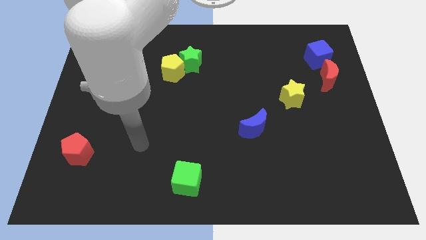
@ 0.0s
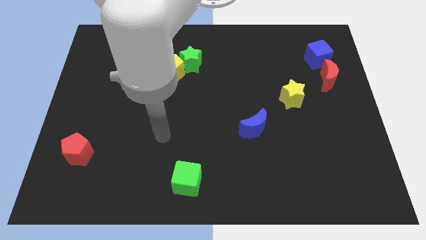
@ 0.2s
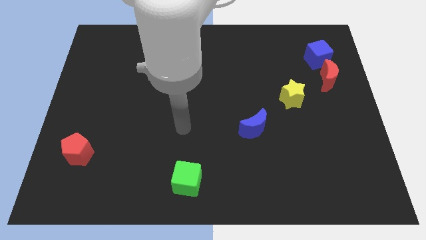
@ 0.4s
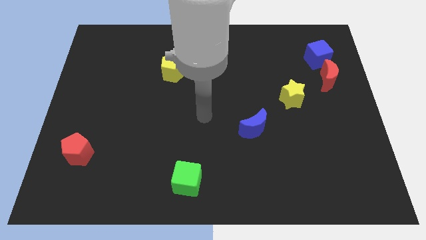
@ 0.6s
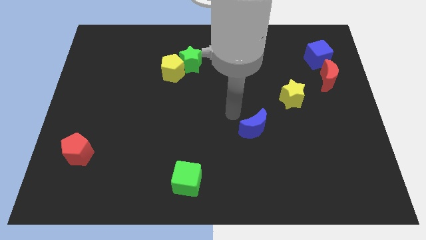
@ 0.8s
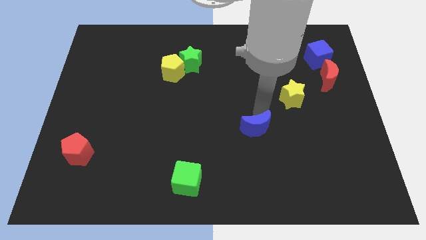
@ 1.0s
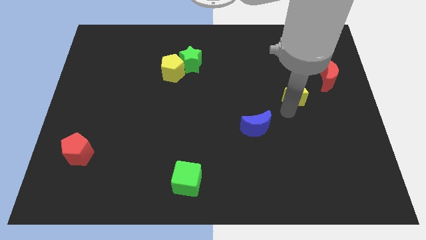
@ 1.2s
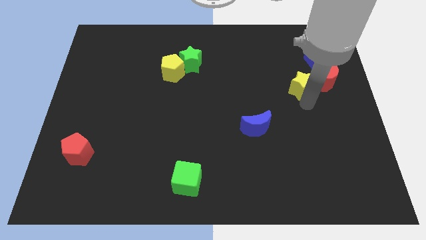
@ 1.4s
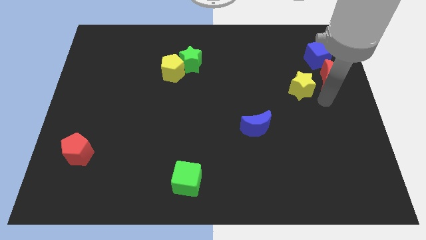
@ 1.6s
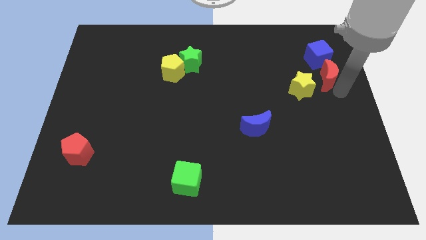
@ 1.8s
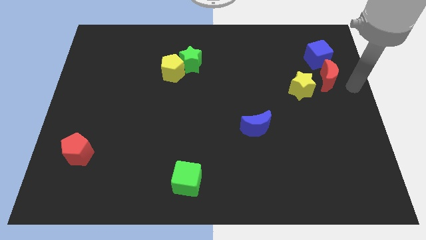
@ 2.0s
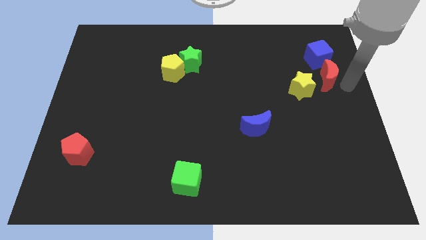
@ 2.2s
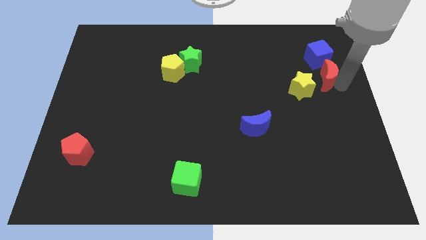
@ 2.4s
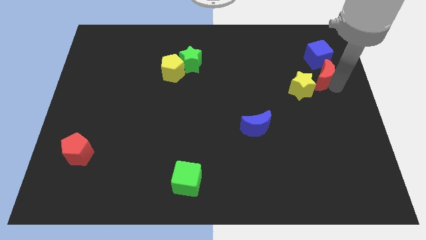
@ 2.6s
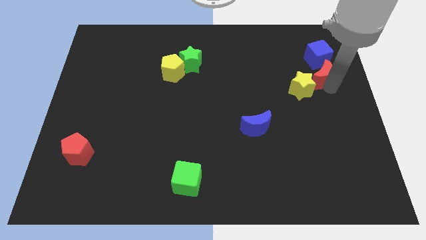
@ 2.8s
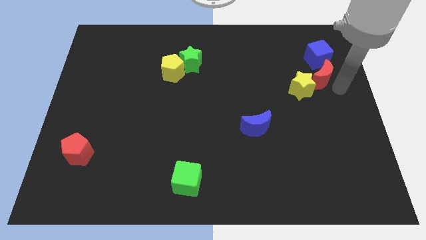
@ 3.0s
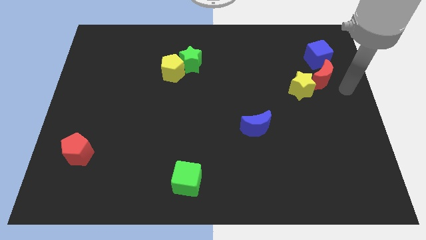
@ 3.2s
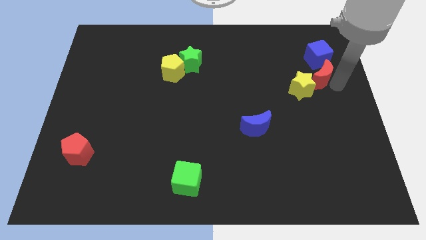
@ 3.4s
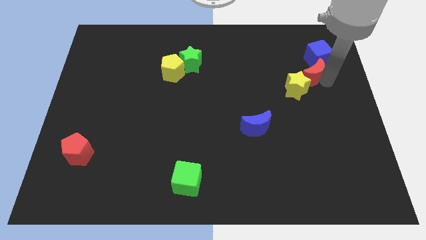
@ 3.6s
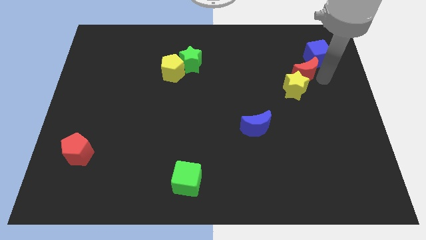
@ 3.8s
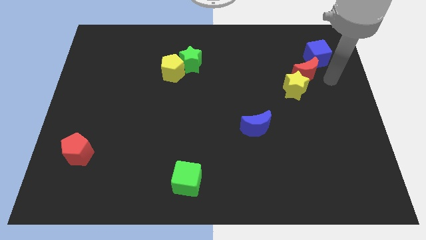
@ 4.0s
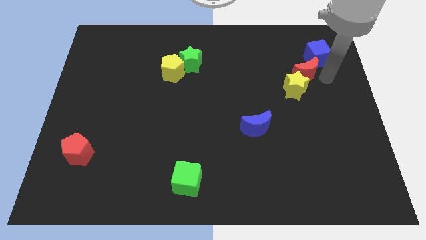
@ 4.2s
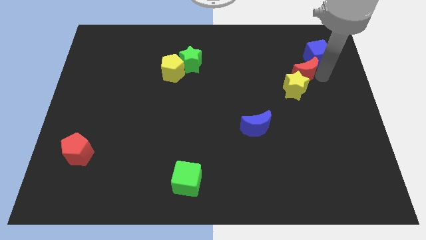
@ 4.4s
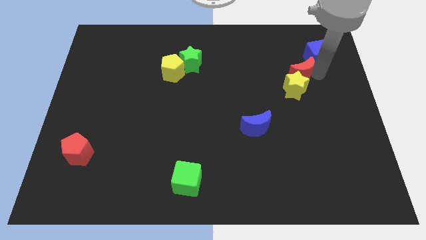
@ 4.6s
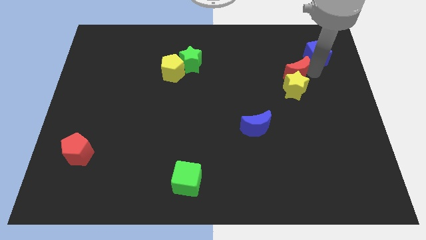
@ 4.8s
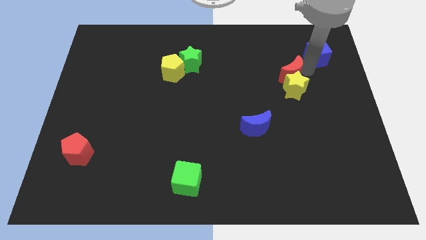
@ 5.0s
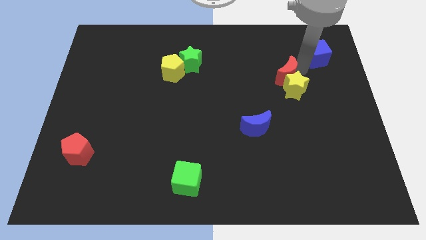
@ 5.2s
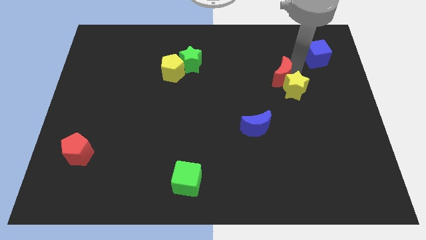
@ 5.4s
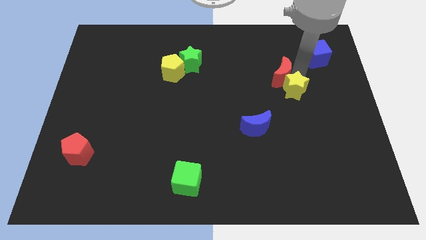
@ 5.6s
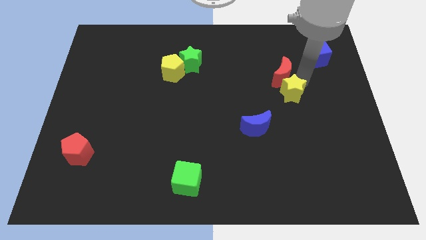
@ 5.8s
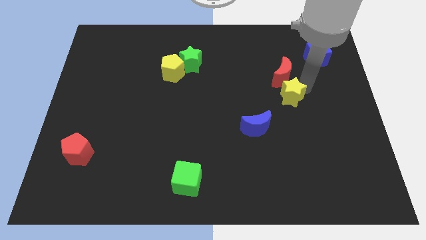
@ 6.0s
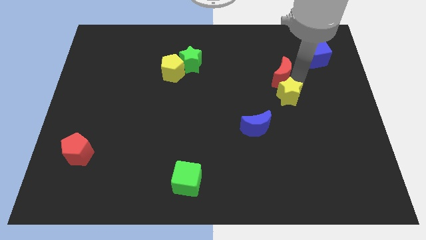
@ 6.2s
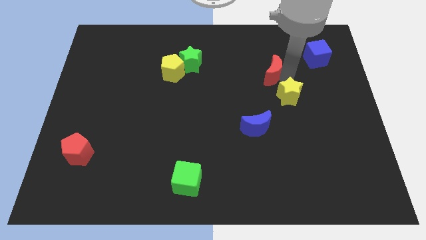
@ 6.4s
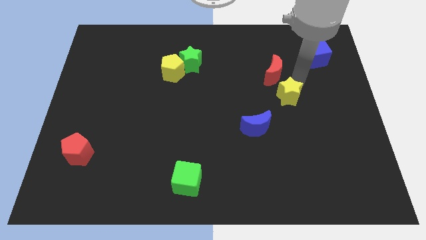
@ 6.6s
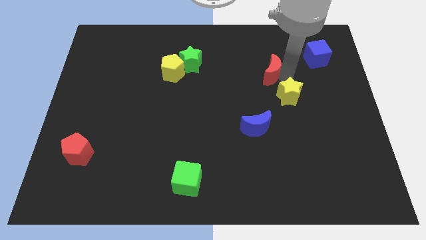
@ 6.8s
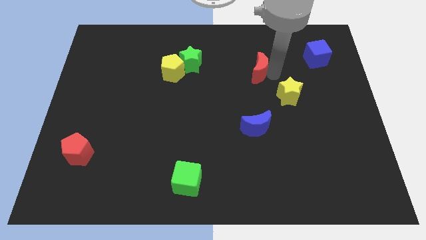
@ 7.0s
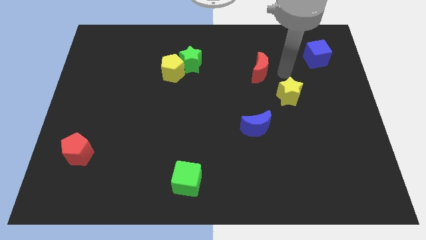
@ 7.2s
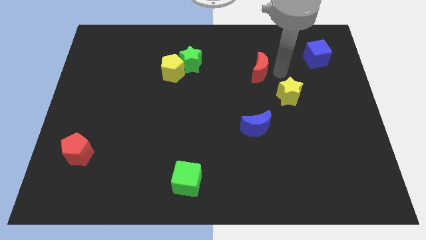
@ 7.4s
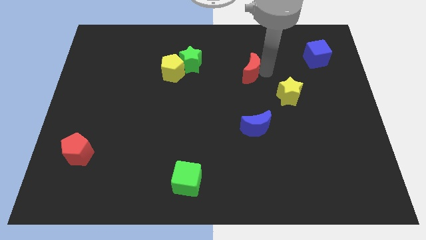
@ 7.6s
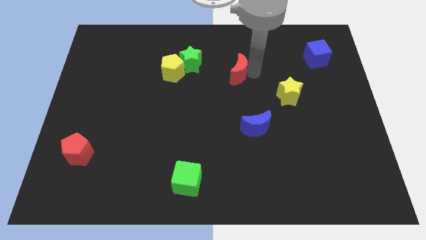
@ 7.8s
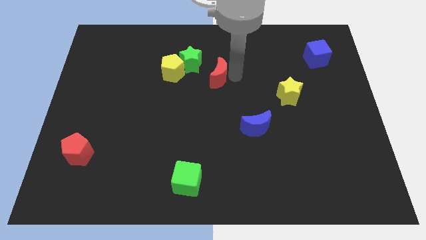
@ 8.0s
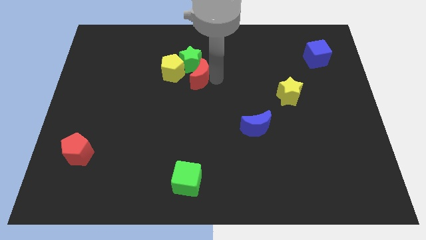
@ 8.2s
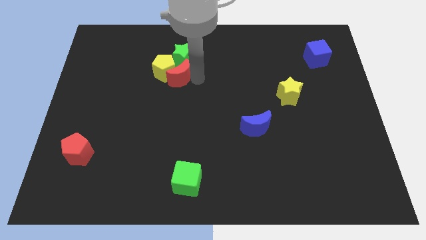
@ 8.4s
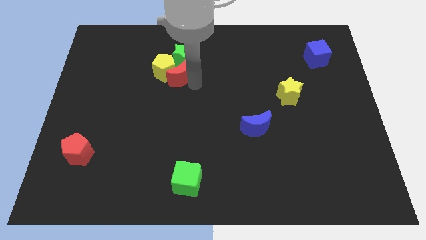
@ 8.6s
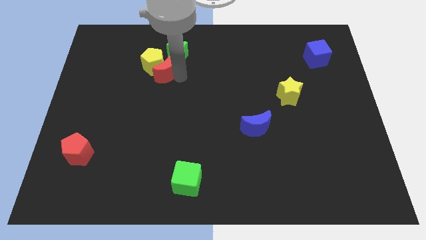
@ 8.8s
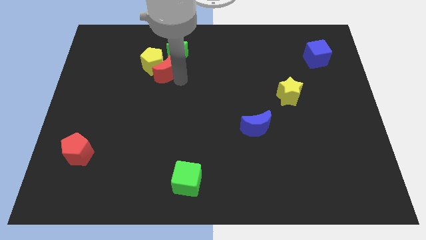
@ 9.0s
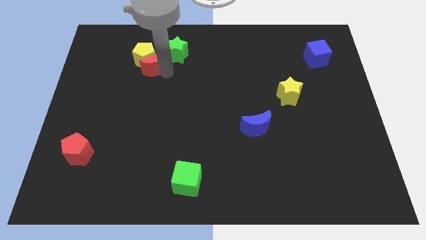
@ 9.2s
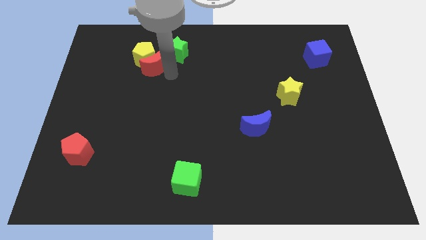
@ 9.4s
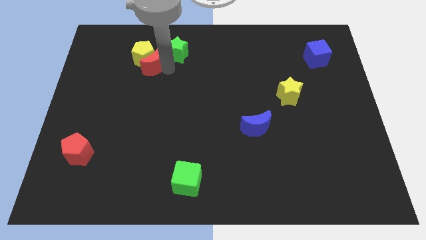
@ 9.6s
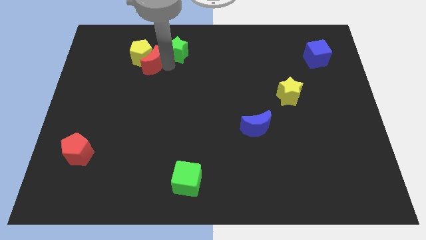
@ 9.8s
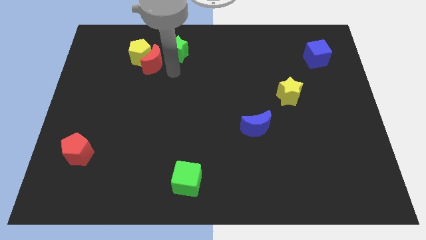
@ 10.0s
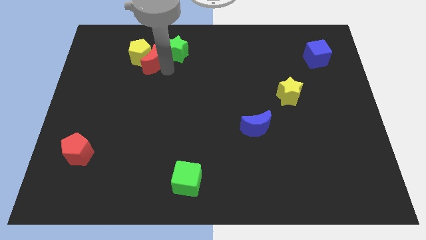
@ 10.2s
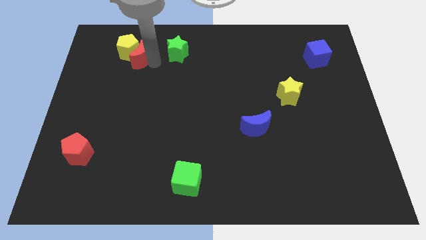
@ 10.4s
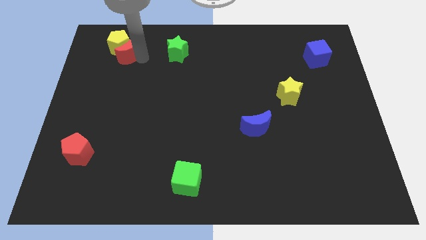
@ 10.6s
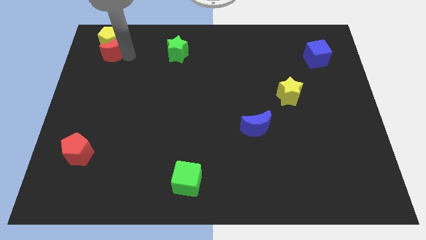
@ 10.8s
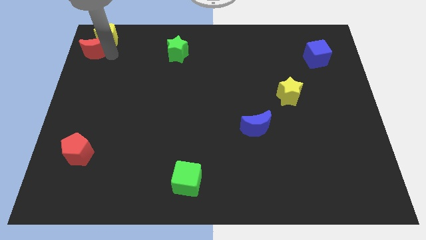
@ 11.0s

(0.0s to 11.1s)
slide the red moon to the top left corner

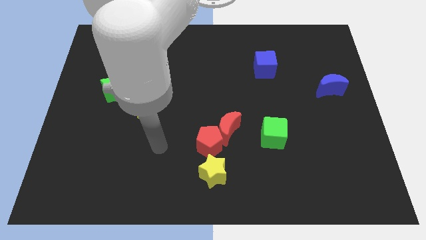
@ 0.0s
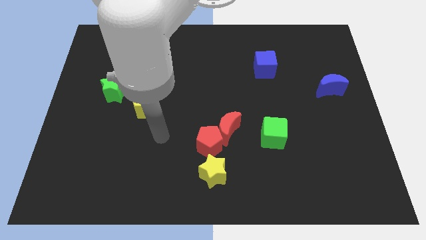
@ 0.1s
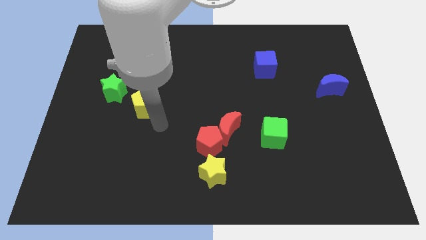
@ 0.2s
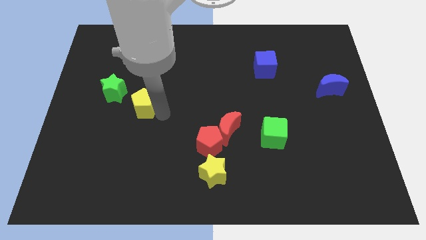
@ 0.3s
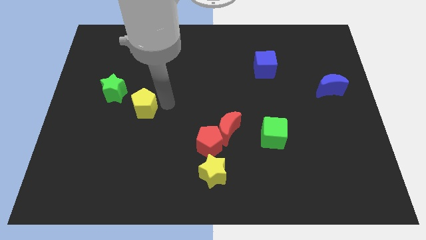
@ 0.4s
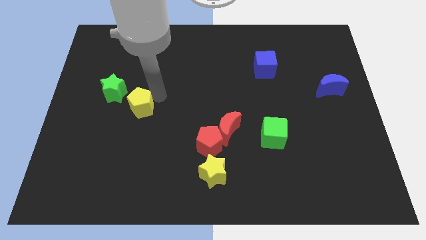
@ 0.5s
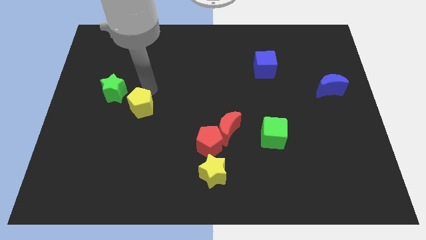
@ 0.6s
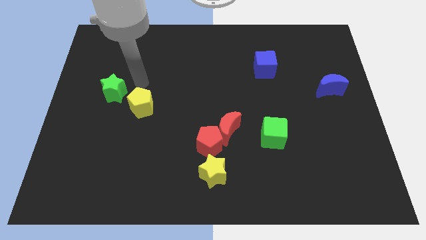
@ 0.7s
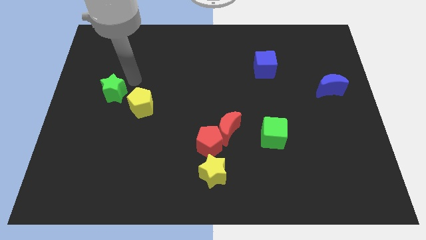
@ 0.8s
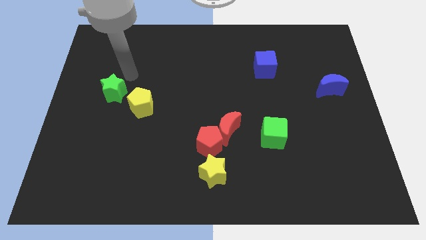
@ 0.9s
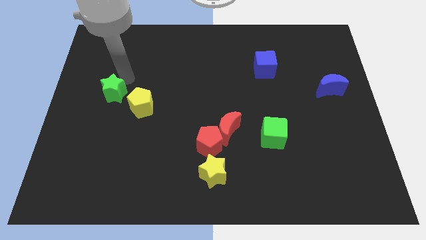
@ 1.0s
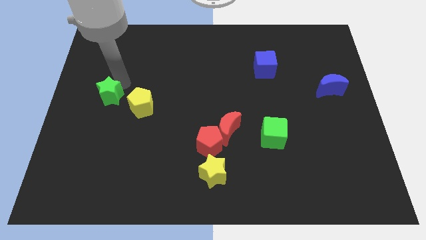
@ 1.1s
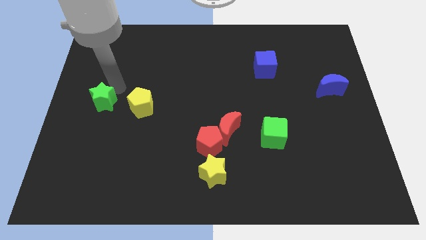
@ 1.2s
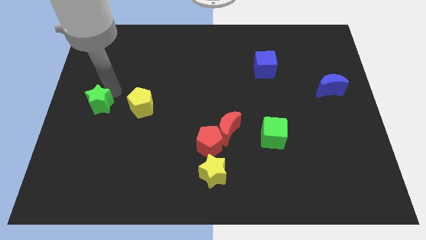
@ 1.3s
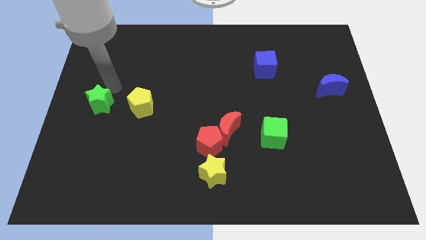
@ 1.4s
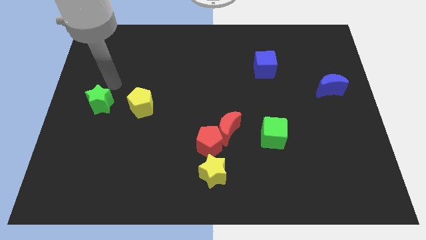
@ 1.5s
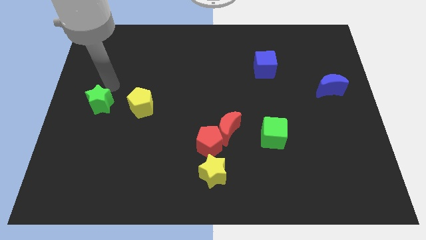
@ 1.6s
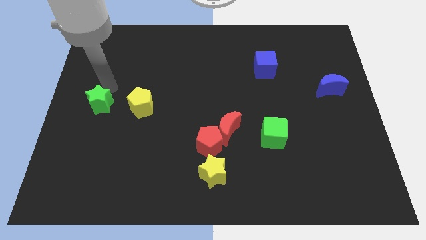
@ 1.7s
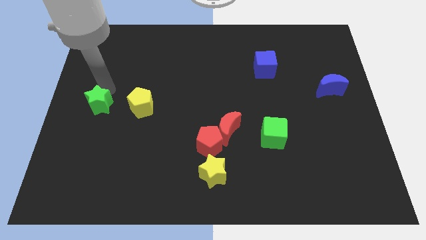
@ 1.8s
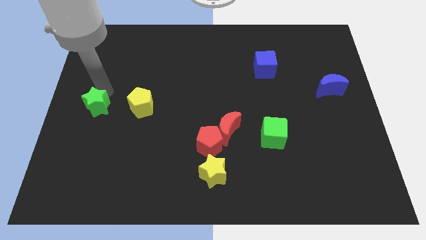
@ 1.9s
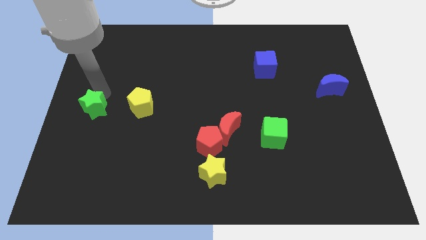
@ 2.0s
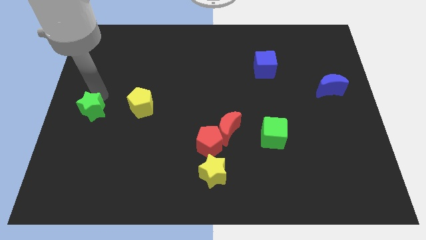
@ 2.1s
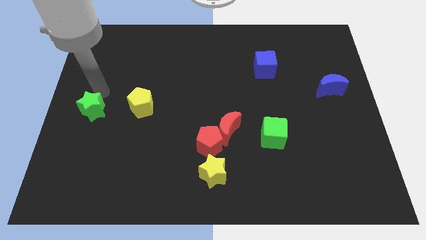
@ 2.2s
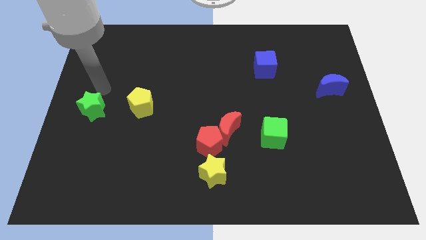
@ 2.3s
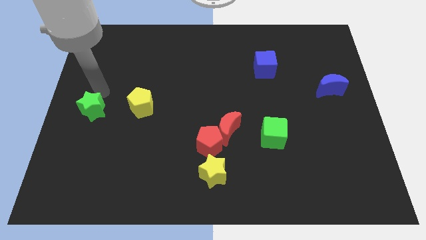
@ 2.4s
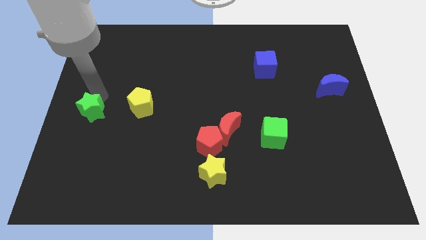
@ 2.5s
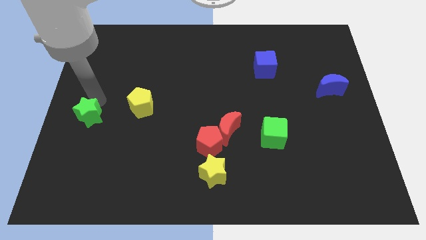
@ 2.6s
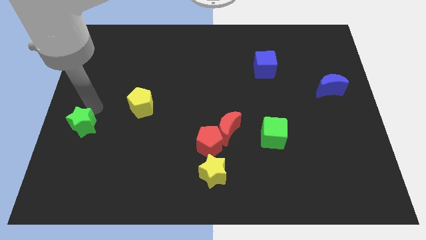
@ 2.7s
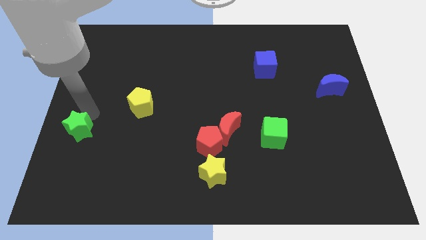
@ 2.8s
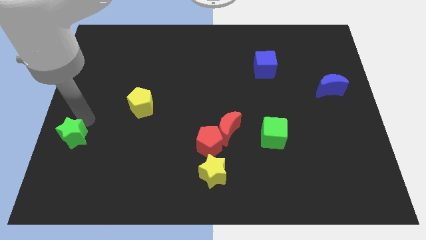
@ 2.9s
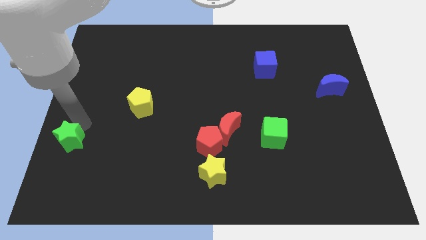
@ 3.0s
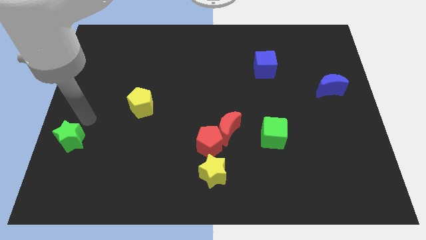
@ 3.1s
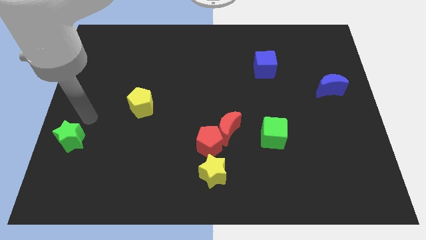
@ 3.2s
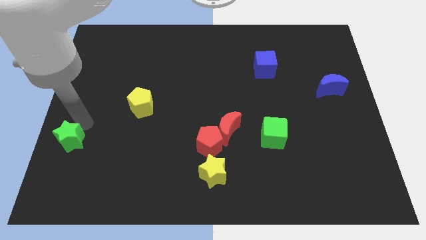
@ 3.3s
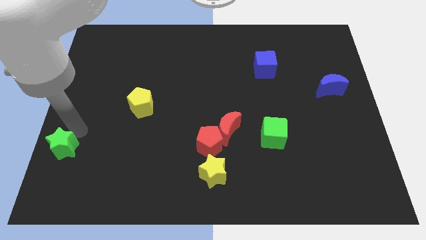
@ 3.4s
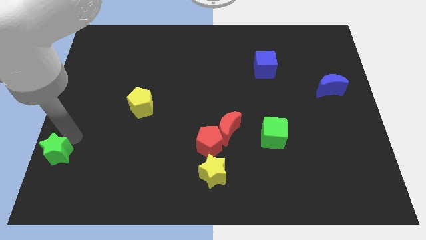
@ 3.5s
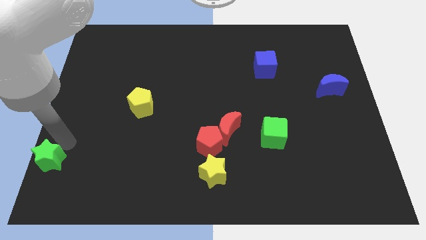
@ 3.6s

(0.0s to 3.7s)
move the green star to the bottom left
